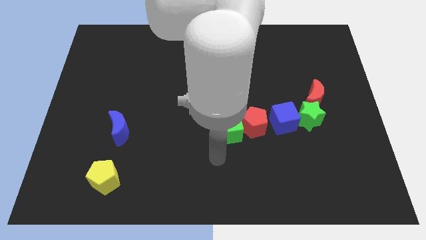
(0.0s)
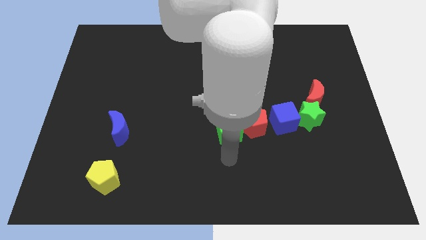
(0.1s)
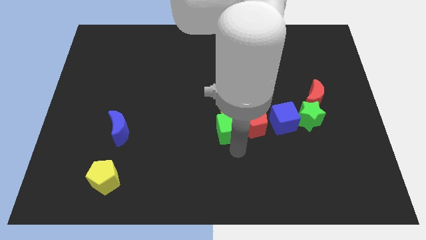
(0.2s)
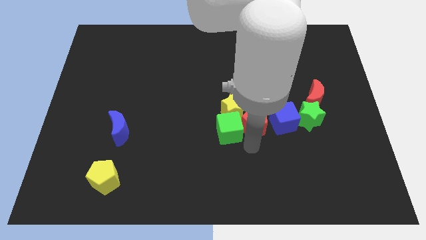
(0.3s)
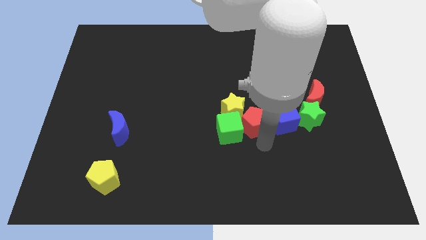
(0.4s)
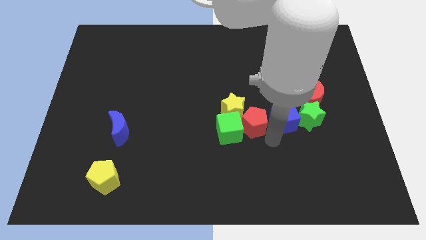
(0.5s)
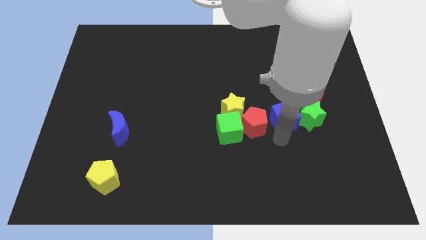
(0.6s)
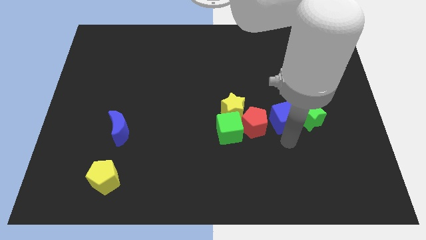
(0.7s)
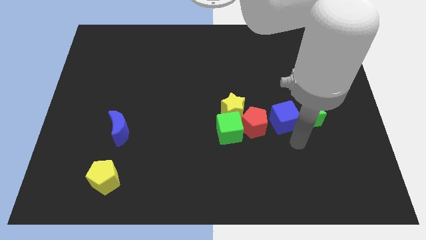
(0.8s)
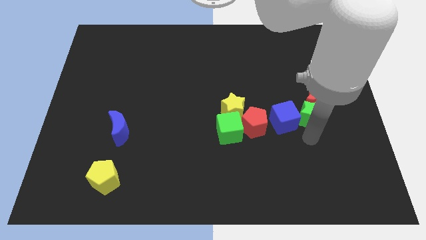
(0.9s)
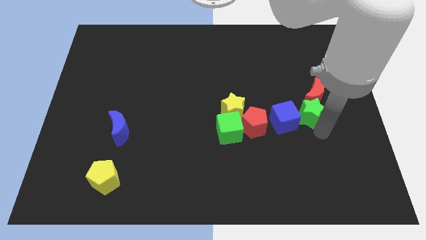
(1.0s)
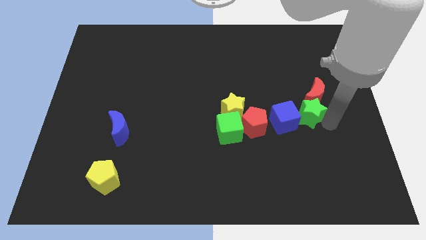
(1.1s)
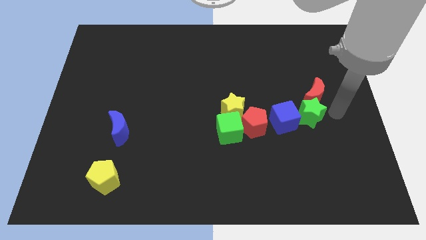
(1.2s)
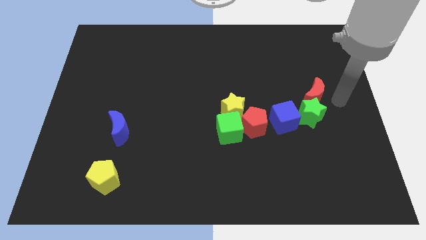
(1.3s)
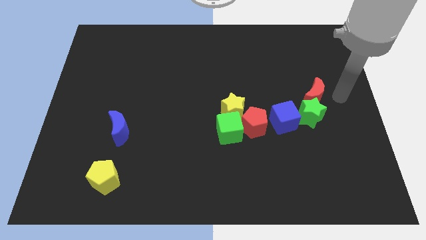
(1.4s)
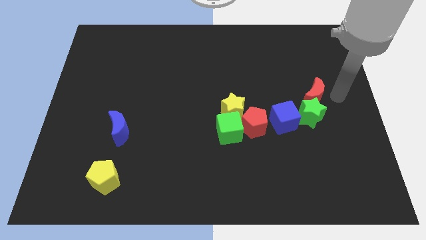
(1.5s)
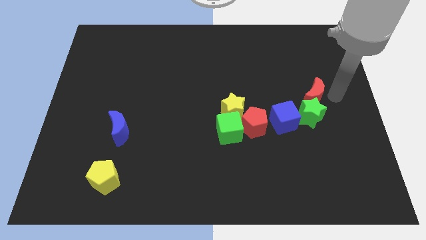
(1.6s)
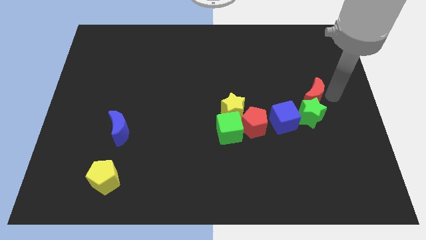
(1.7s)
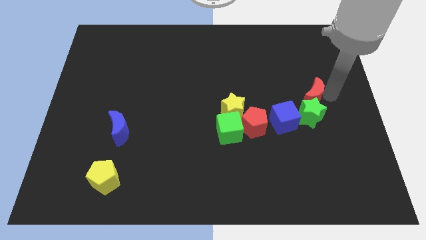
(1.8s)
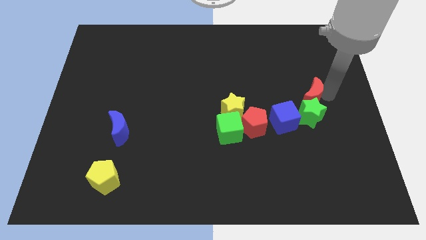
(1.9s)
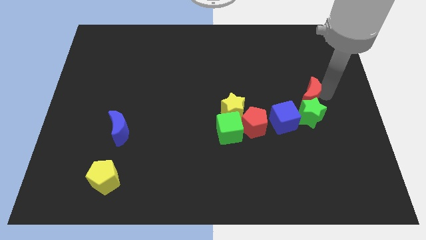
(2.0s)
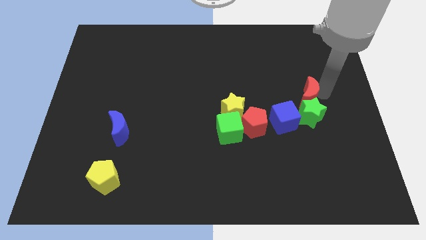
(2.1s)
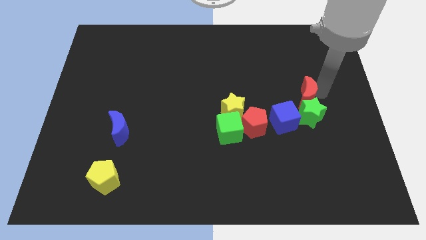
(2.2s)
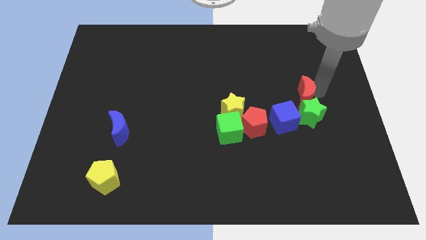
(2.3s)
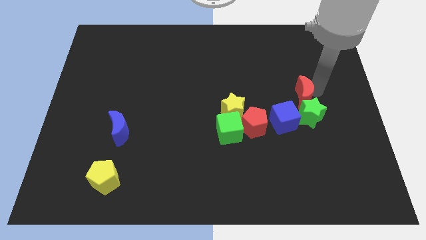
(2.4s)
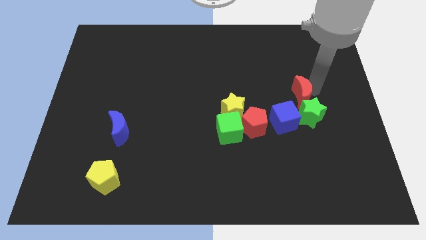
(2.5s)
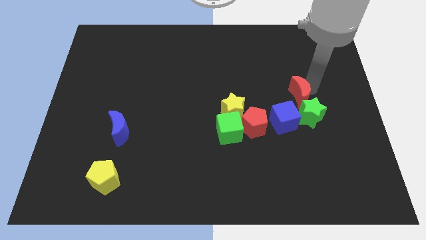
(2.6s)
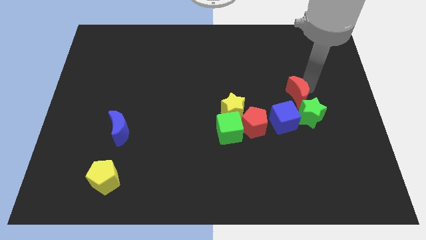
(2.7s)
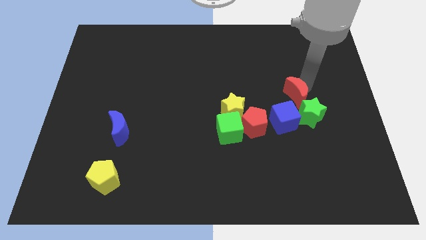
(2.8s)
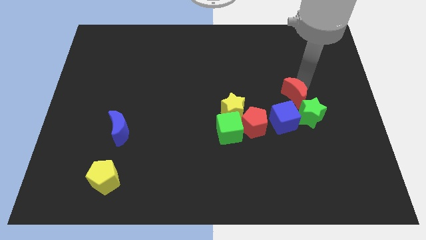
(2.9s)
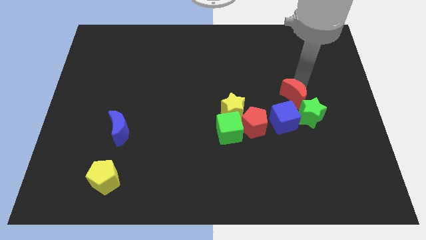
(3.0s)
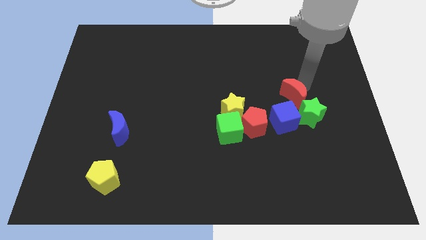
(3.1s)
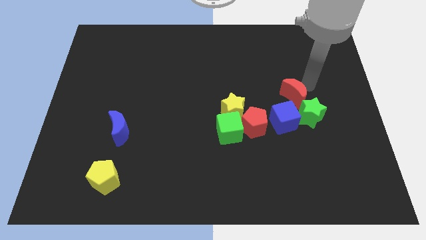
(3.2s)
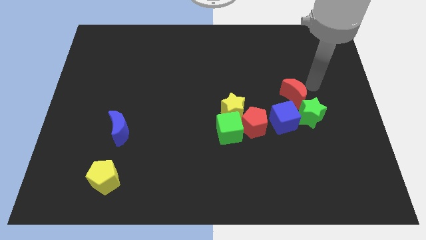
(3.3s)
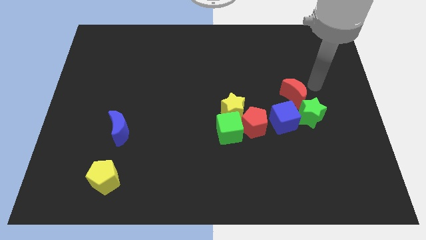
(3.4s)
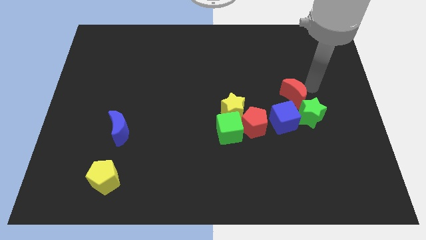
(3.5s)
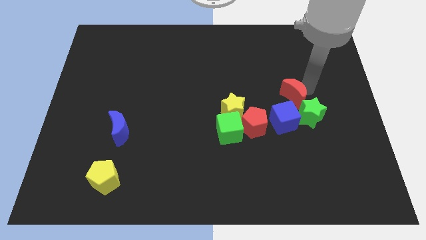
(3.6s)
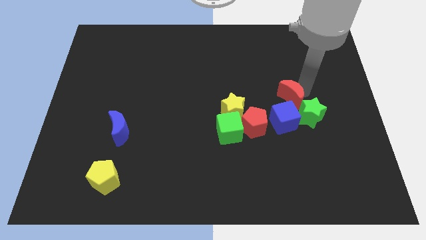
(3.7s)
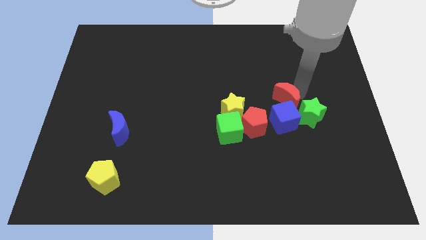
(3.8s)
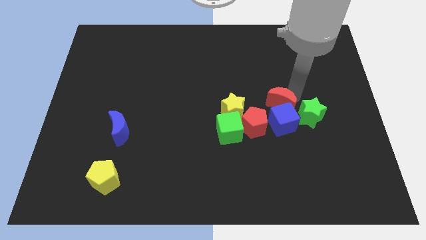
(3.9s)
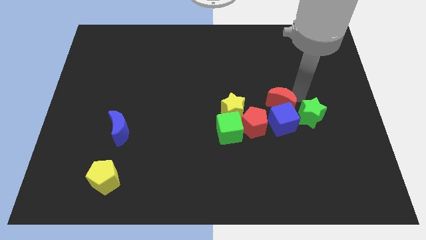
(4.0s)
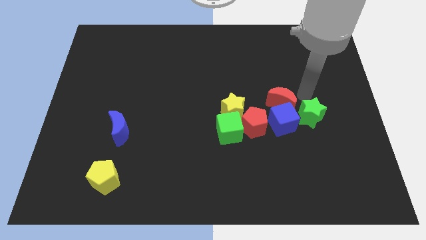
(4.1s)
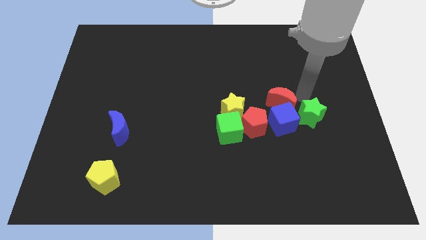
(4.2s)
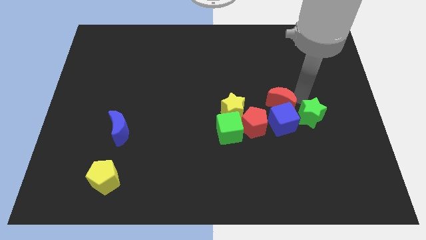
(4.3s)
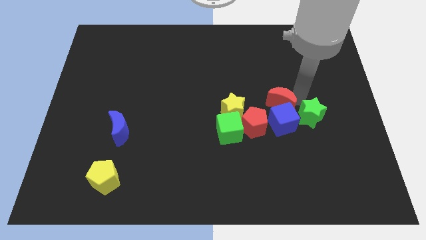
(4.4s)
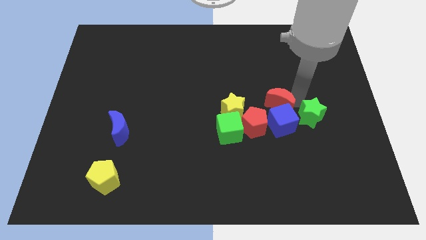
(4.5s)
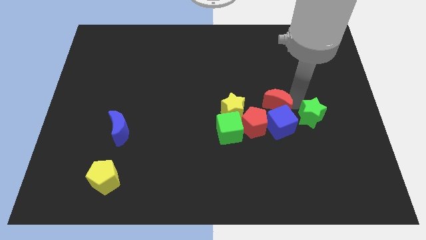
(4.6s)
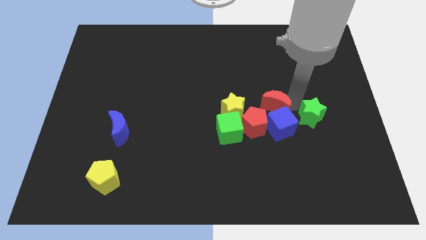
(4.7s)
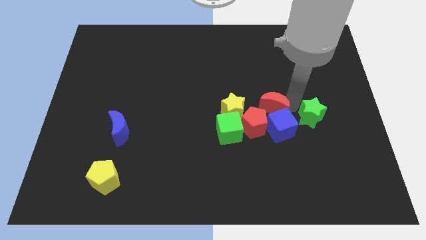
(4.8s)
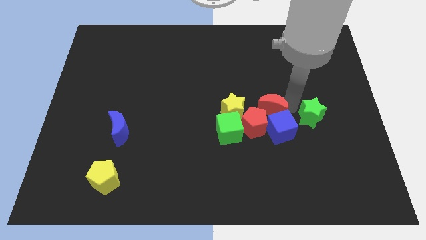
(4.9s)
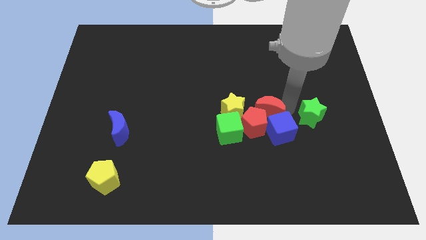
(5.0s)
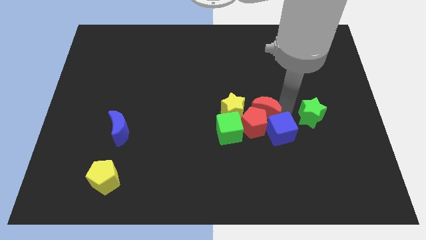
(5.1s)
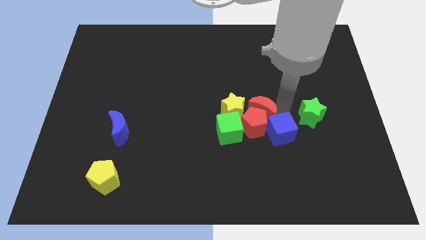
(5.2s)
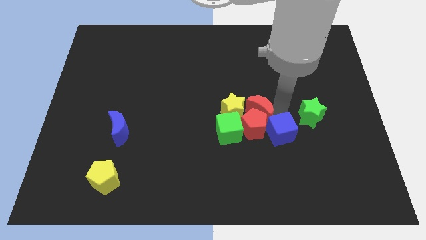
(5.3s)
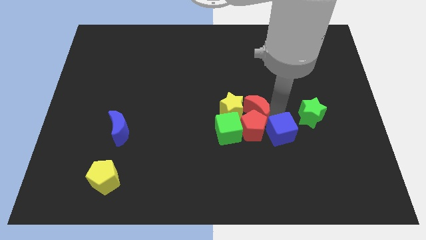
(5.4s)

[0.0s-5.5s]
slide the red moon to the yellow star

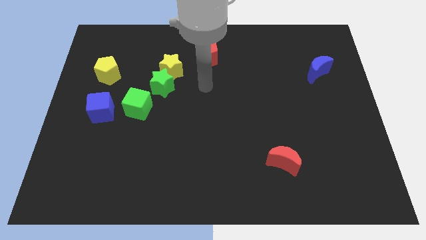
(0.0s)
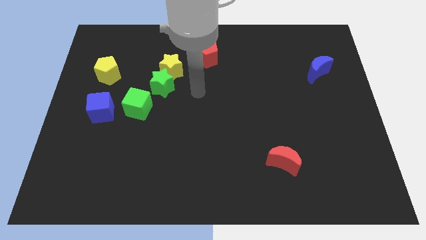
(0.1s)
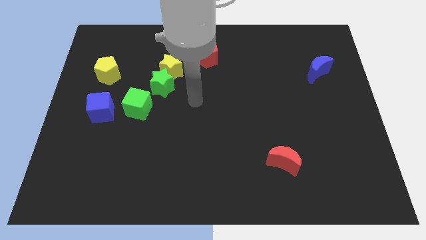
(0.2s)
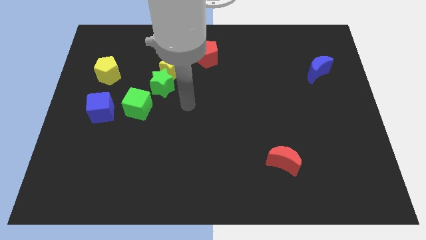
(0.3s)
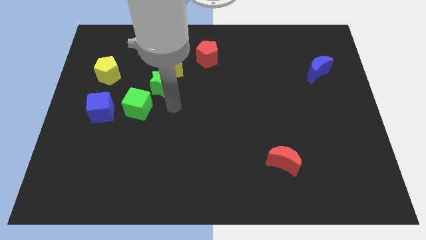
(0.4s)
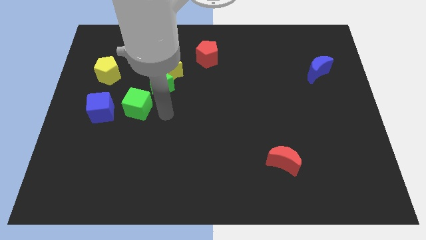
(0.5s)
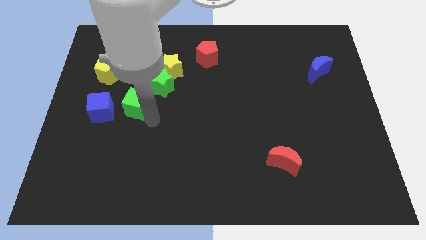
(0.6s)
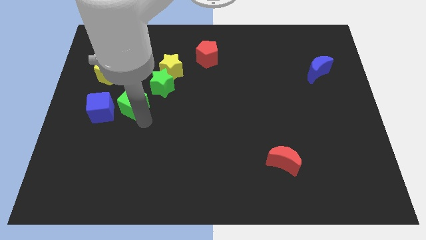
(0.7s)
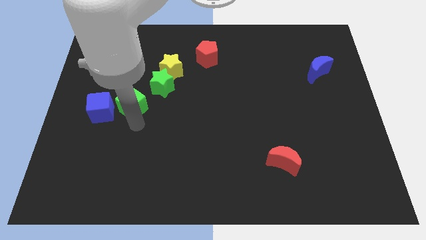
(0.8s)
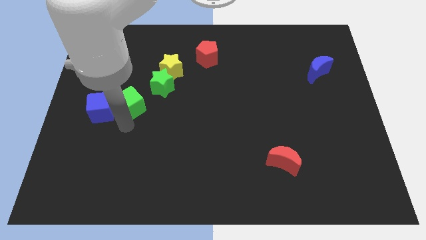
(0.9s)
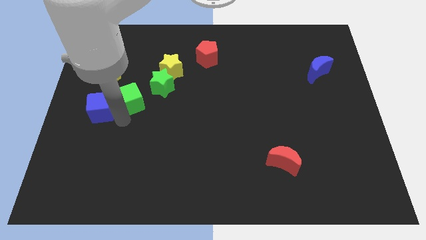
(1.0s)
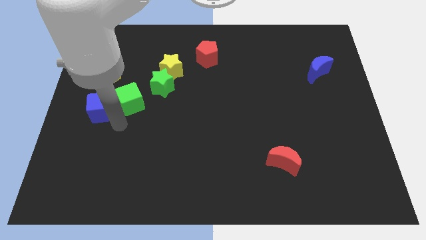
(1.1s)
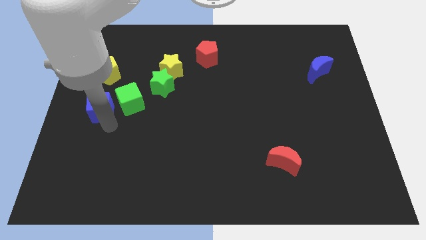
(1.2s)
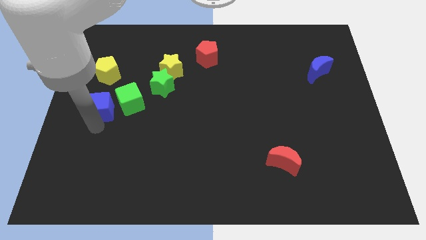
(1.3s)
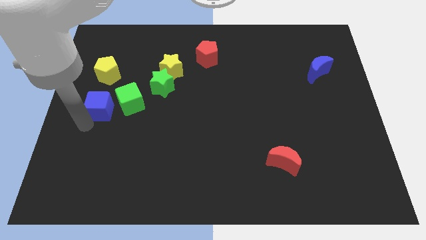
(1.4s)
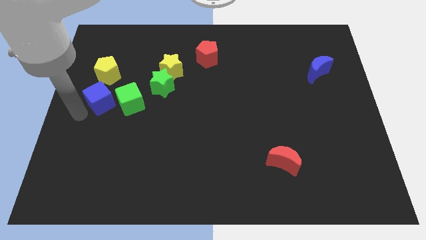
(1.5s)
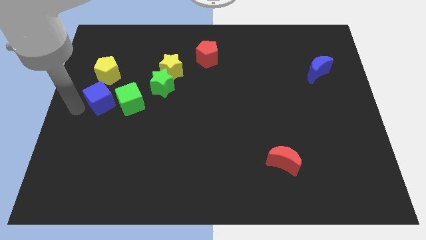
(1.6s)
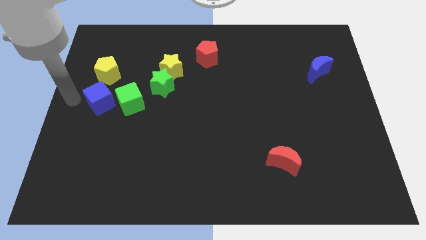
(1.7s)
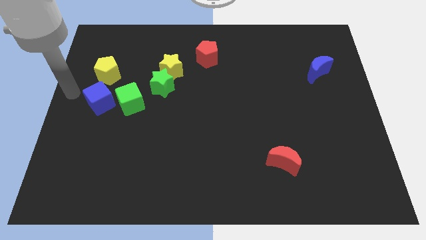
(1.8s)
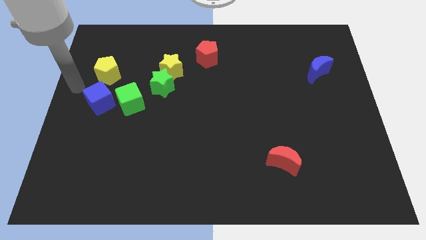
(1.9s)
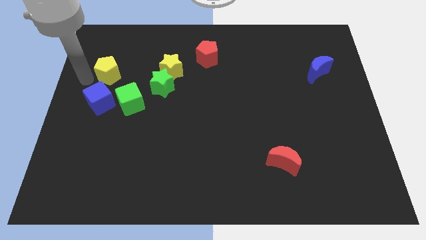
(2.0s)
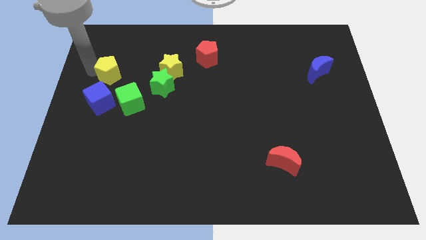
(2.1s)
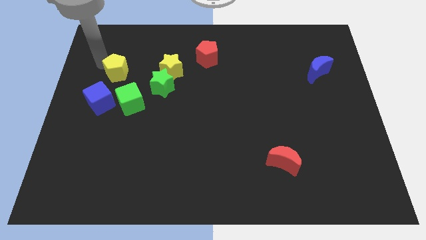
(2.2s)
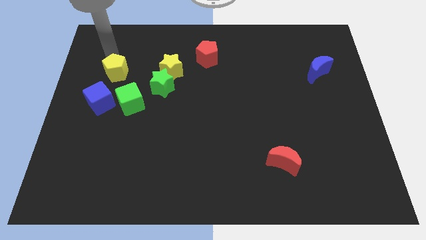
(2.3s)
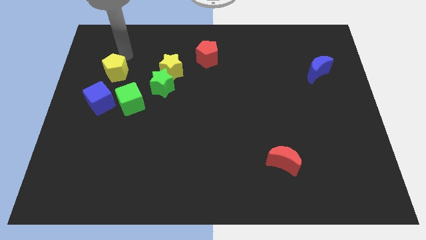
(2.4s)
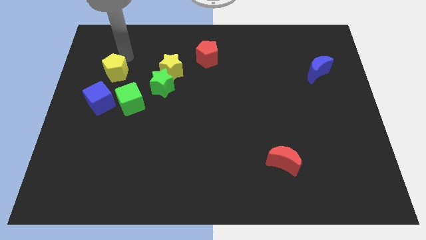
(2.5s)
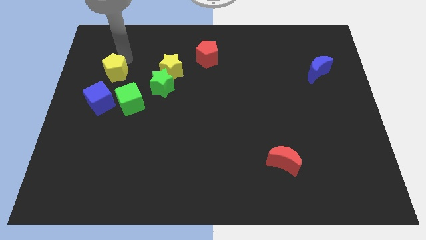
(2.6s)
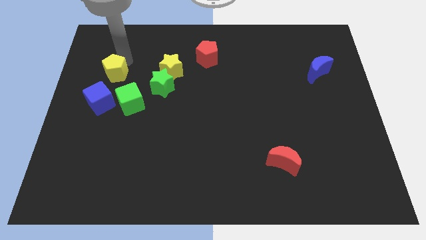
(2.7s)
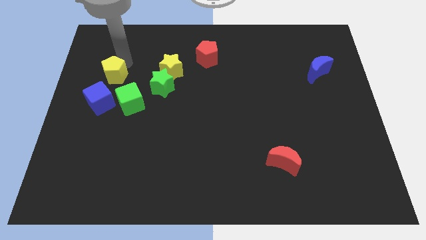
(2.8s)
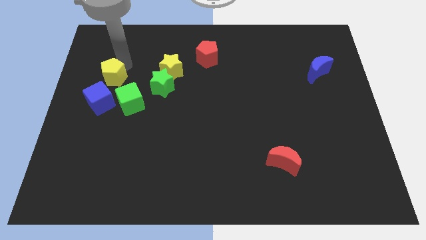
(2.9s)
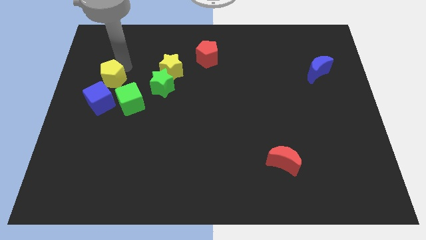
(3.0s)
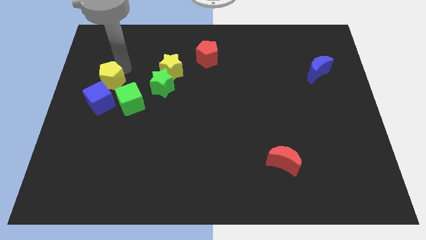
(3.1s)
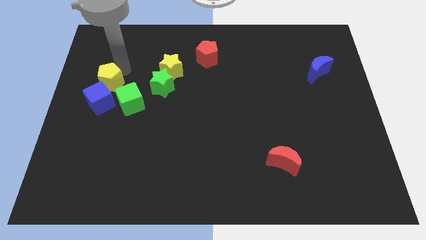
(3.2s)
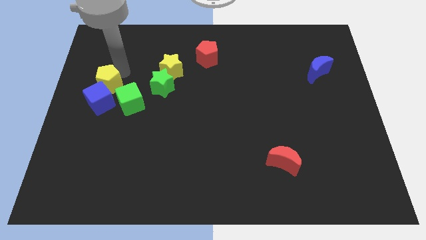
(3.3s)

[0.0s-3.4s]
move the yellow pentagon next to the blue cube
